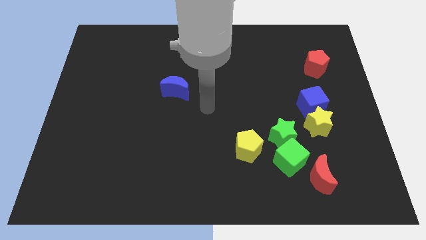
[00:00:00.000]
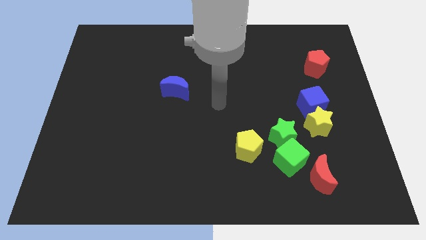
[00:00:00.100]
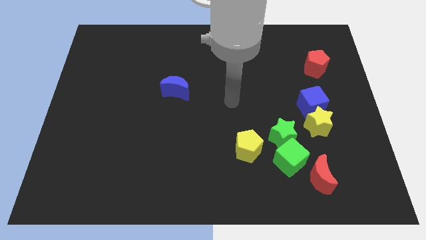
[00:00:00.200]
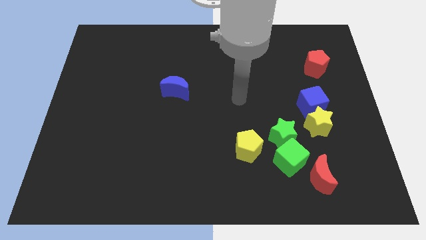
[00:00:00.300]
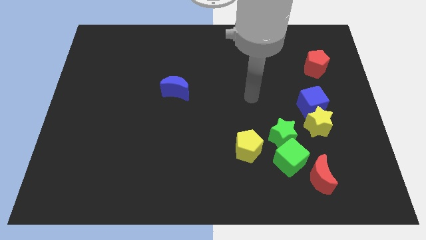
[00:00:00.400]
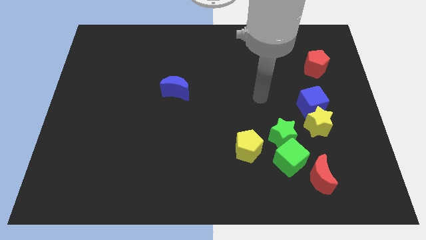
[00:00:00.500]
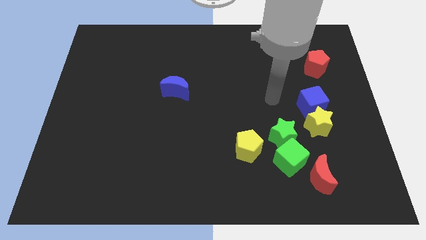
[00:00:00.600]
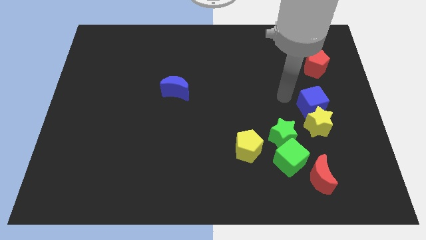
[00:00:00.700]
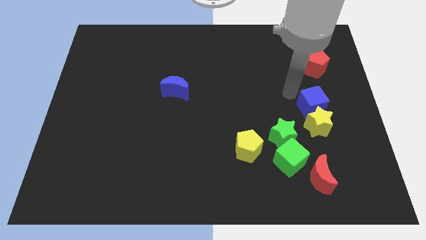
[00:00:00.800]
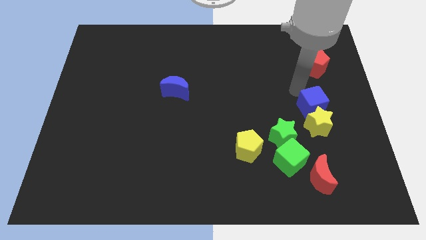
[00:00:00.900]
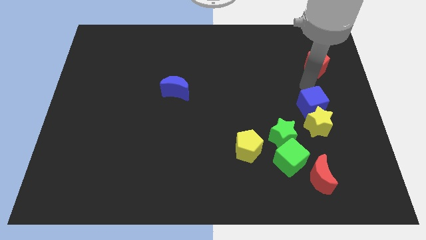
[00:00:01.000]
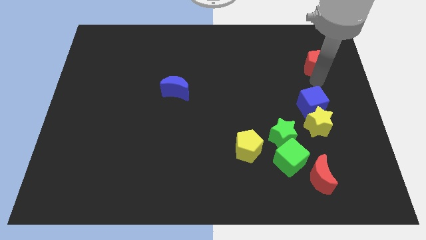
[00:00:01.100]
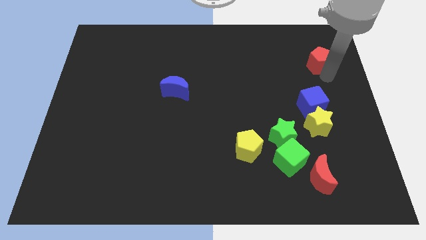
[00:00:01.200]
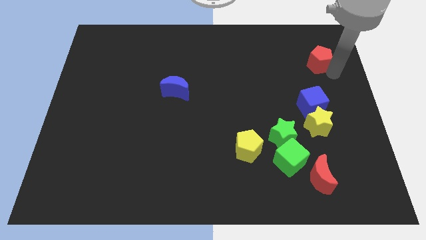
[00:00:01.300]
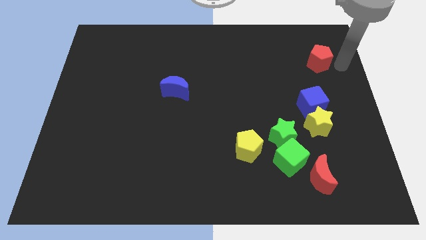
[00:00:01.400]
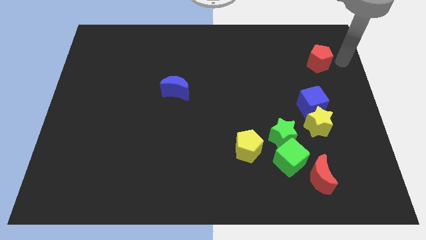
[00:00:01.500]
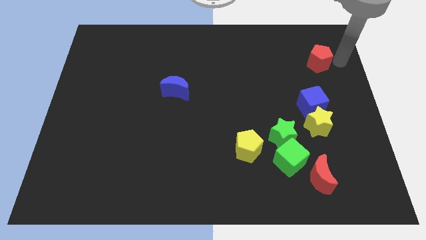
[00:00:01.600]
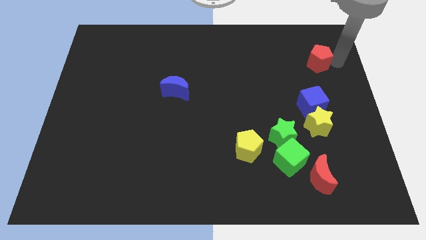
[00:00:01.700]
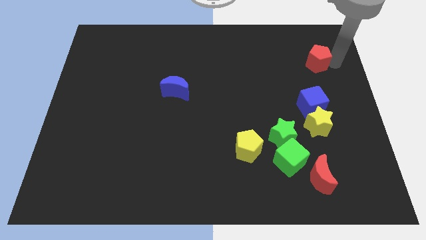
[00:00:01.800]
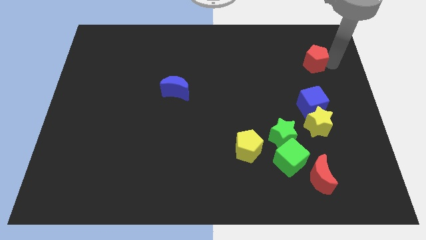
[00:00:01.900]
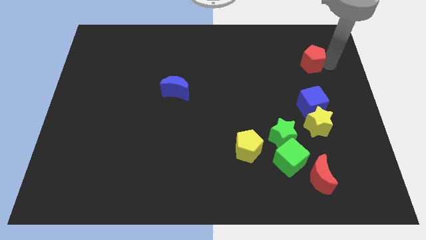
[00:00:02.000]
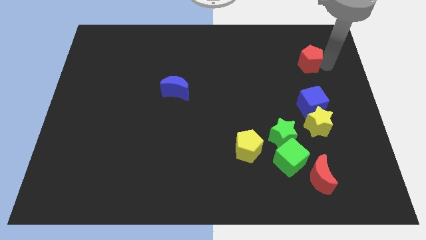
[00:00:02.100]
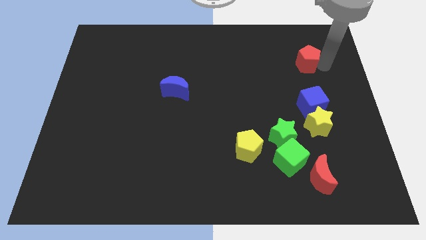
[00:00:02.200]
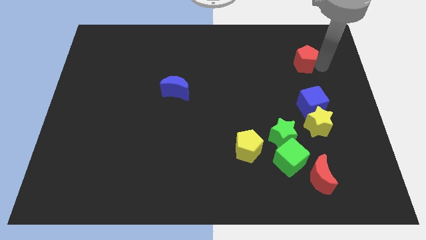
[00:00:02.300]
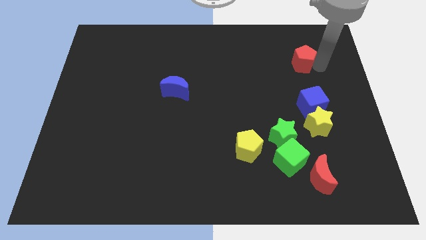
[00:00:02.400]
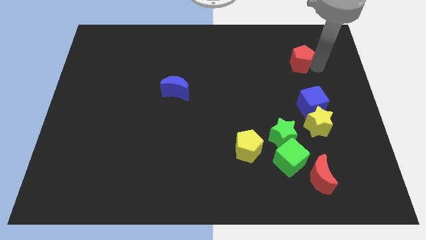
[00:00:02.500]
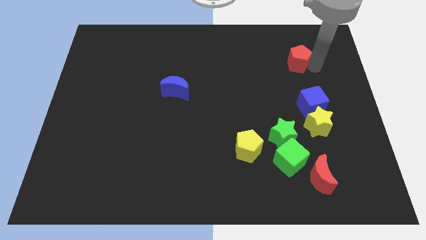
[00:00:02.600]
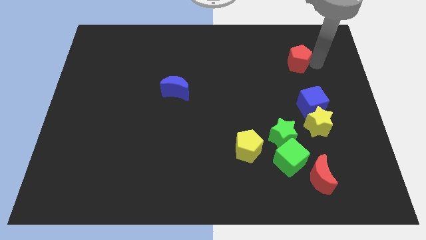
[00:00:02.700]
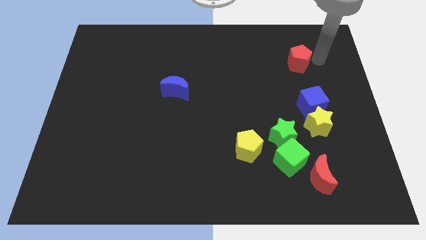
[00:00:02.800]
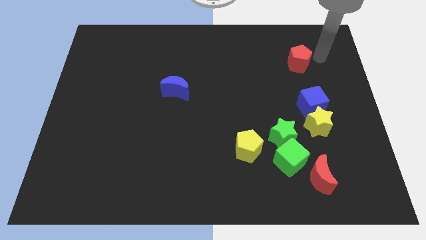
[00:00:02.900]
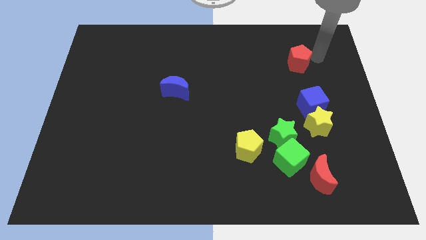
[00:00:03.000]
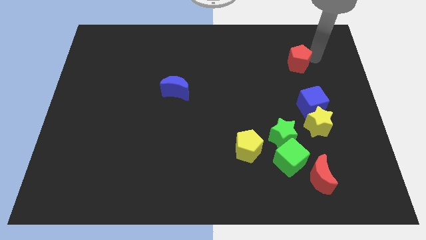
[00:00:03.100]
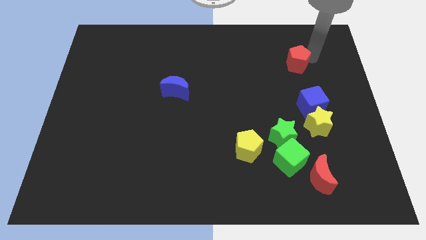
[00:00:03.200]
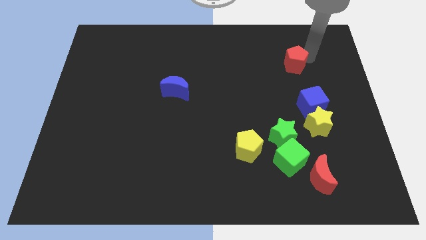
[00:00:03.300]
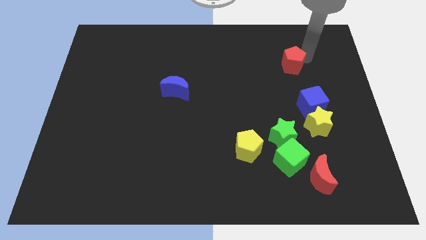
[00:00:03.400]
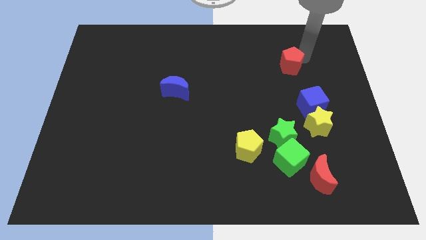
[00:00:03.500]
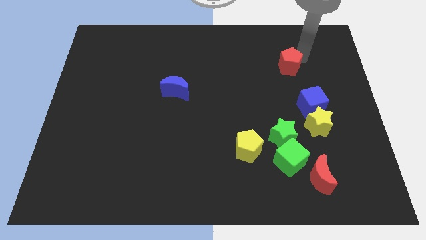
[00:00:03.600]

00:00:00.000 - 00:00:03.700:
move the red pentagon to the left slightly

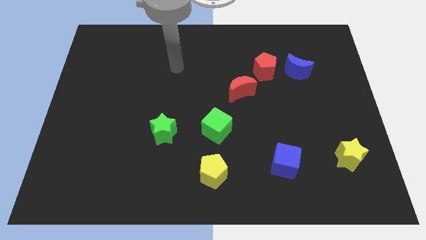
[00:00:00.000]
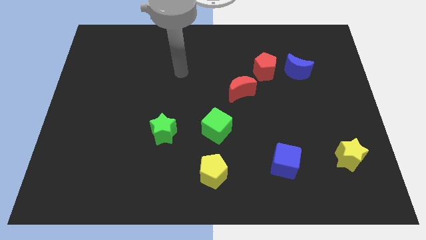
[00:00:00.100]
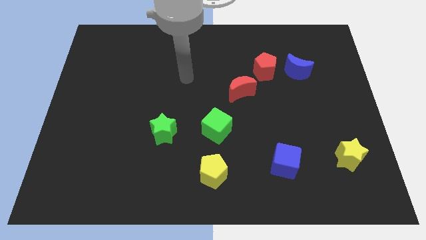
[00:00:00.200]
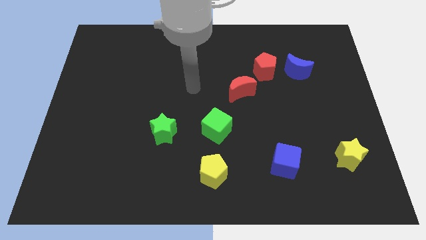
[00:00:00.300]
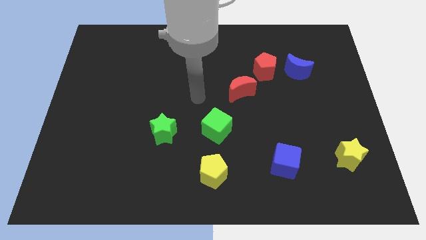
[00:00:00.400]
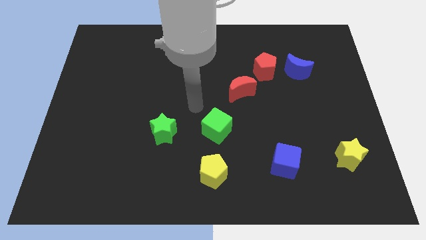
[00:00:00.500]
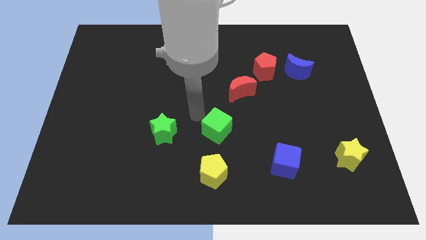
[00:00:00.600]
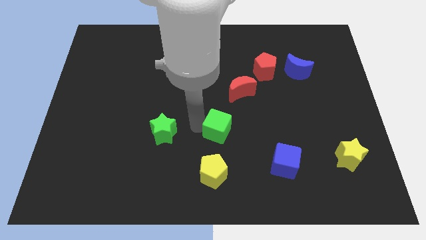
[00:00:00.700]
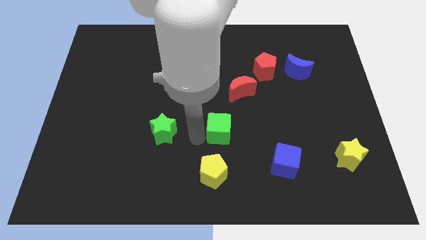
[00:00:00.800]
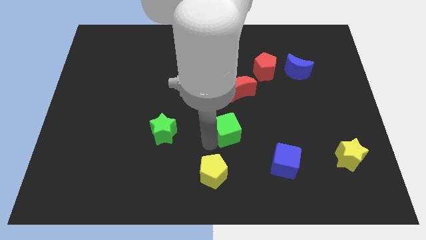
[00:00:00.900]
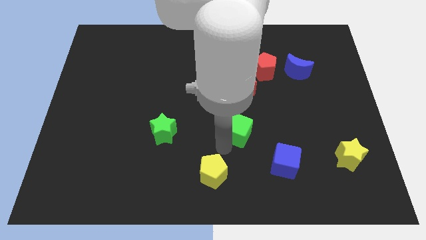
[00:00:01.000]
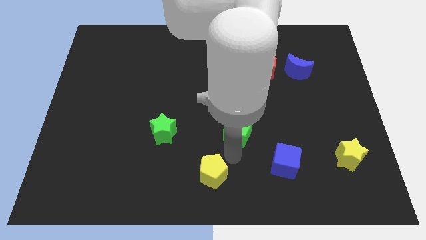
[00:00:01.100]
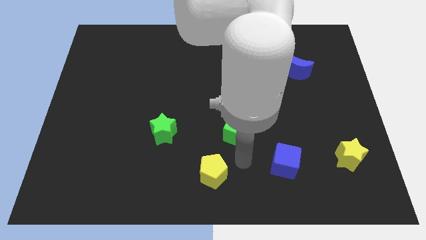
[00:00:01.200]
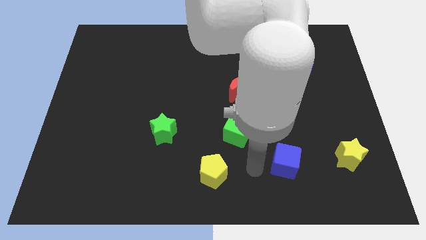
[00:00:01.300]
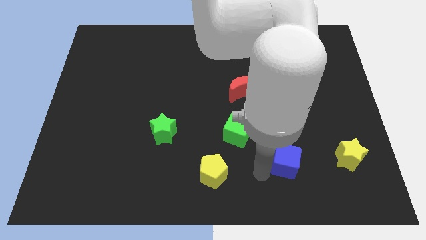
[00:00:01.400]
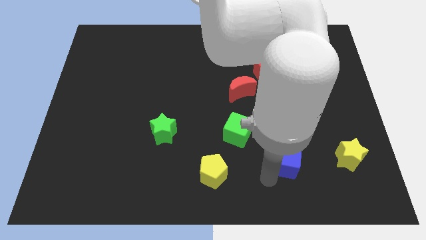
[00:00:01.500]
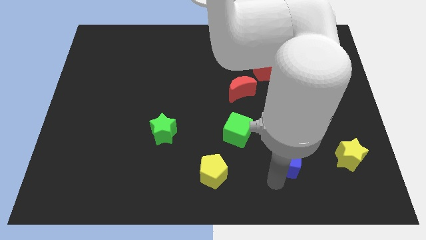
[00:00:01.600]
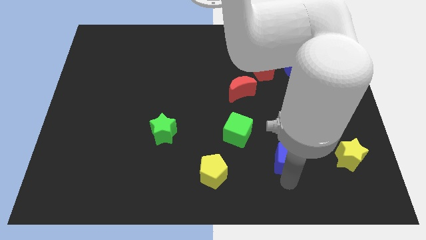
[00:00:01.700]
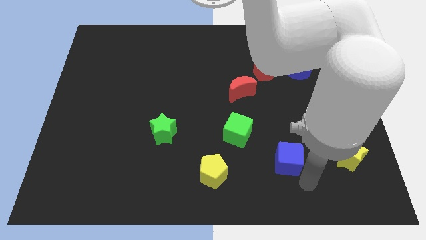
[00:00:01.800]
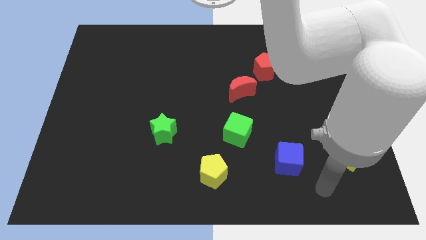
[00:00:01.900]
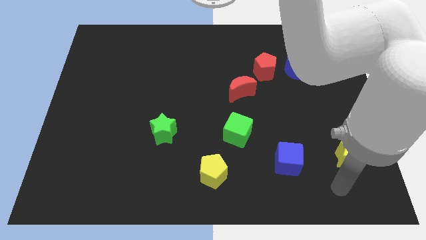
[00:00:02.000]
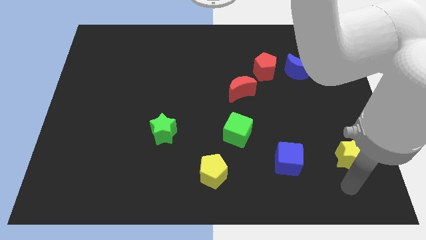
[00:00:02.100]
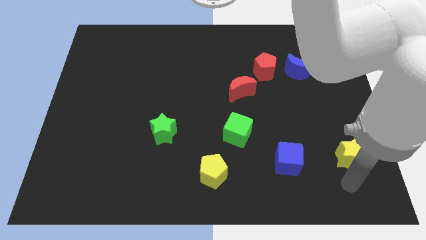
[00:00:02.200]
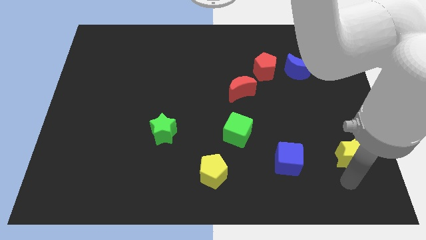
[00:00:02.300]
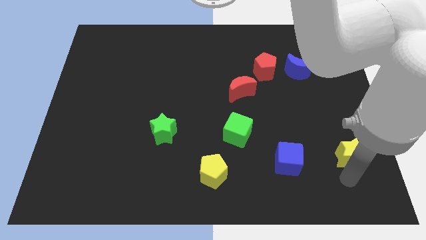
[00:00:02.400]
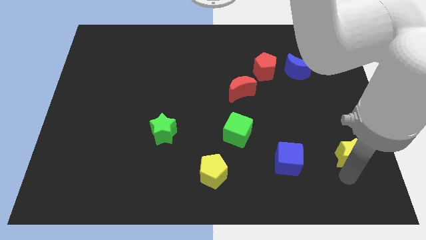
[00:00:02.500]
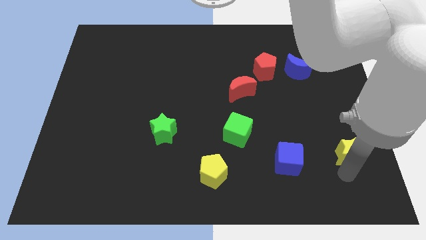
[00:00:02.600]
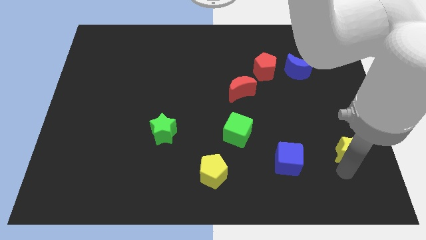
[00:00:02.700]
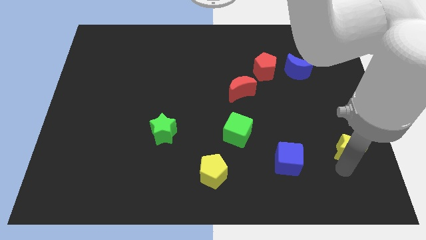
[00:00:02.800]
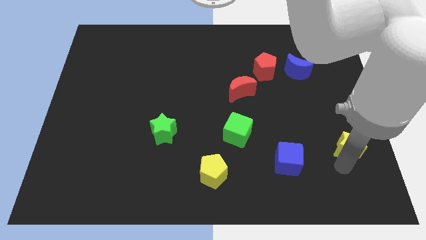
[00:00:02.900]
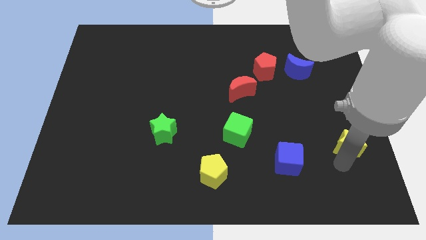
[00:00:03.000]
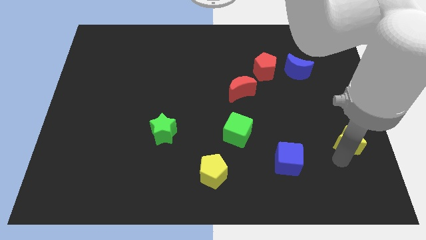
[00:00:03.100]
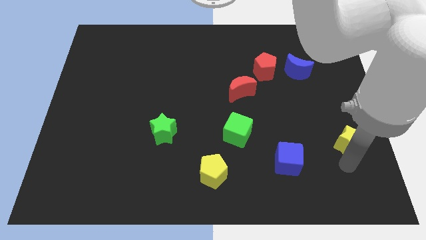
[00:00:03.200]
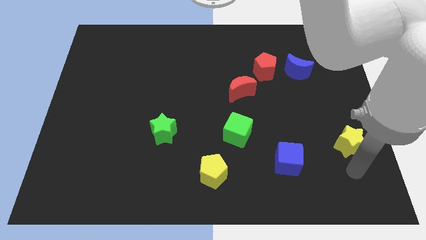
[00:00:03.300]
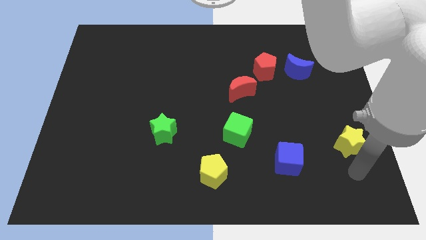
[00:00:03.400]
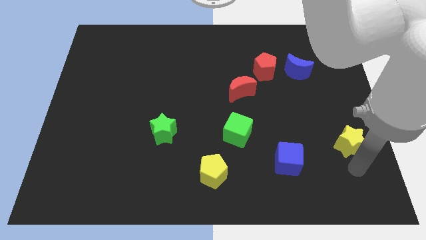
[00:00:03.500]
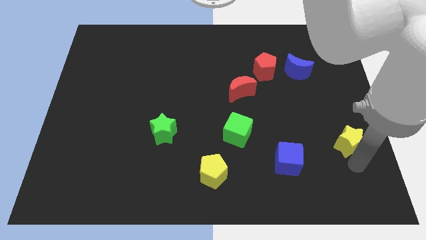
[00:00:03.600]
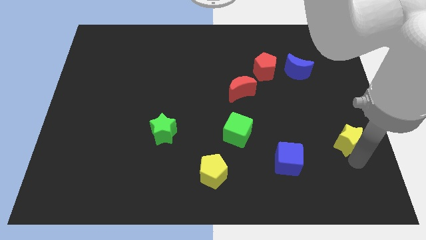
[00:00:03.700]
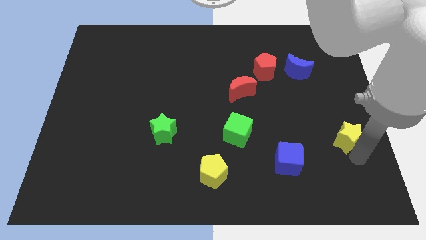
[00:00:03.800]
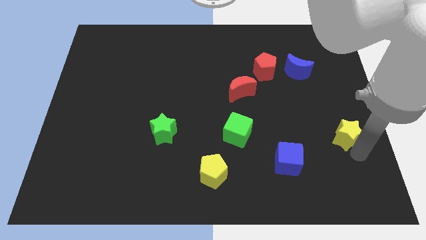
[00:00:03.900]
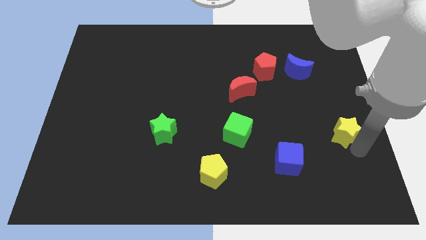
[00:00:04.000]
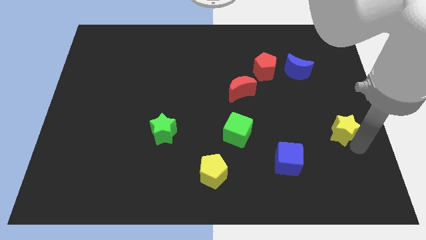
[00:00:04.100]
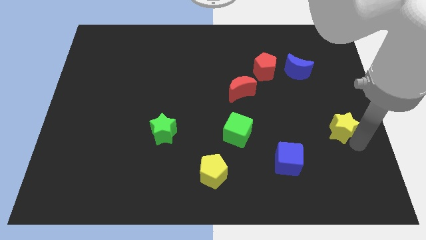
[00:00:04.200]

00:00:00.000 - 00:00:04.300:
slightly slide the yellow star upwards

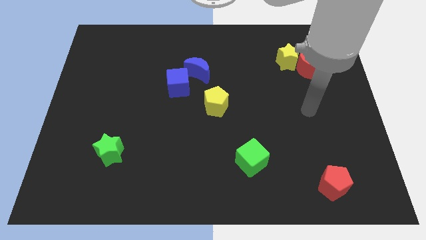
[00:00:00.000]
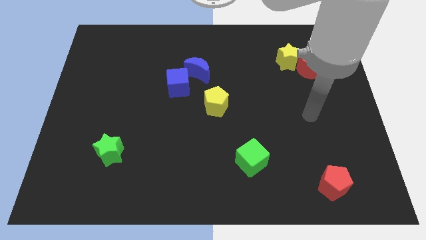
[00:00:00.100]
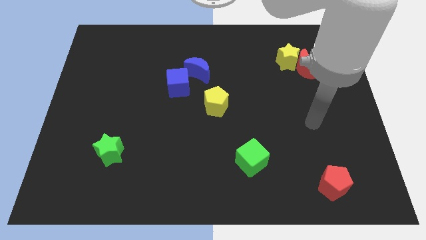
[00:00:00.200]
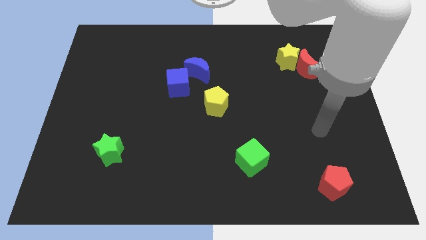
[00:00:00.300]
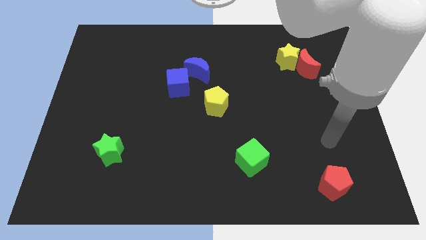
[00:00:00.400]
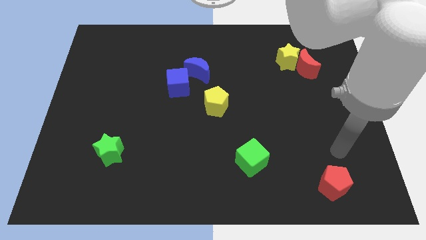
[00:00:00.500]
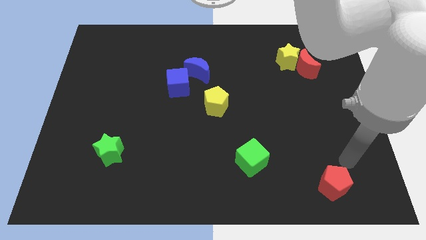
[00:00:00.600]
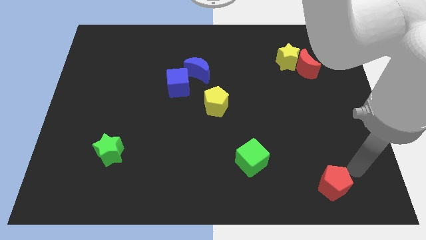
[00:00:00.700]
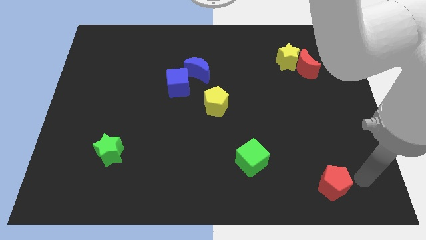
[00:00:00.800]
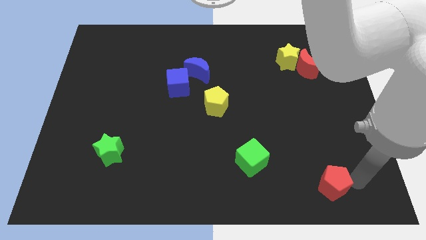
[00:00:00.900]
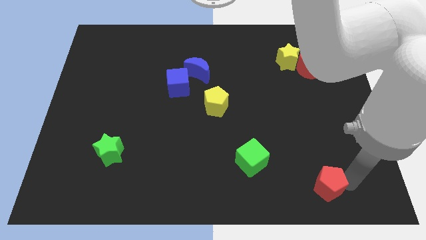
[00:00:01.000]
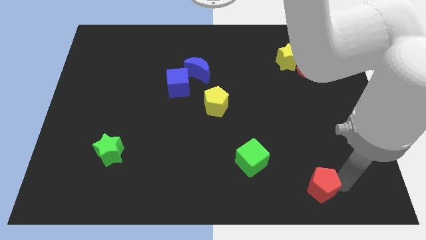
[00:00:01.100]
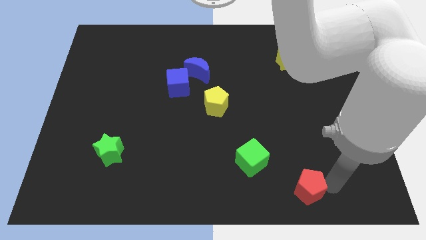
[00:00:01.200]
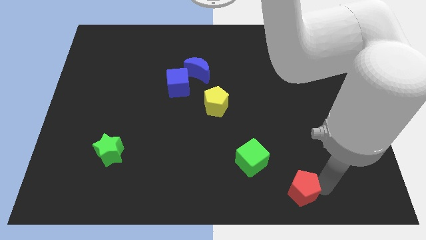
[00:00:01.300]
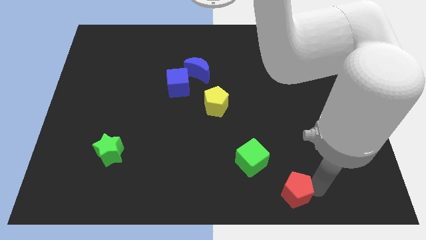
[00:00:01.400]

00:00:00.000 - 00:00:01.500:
slide the red pentagon left somewhat
